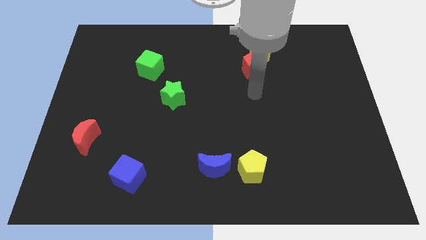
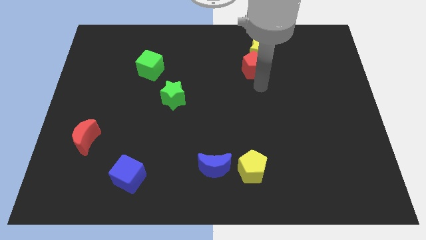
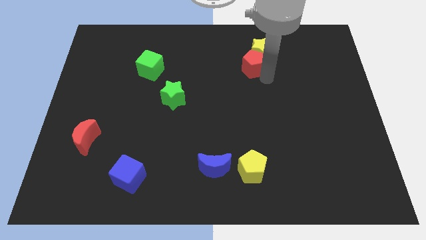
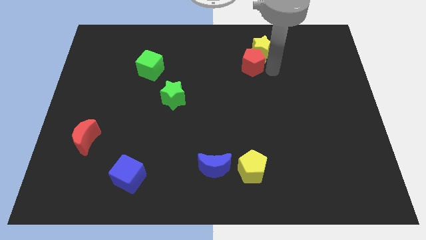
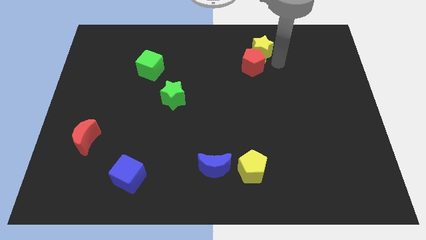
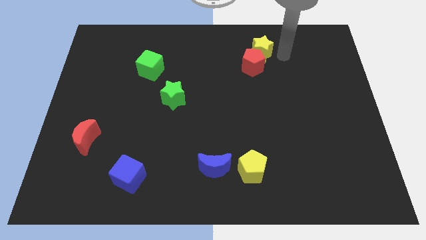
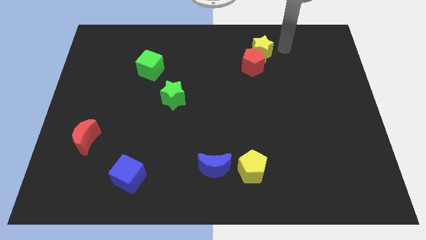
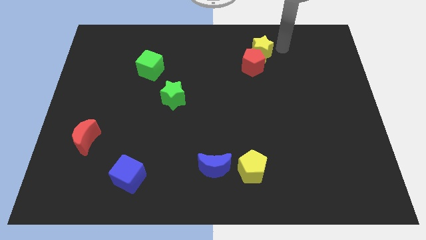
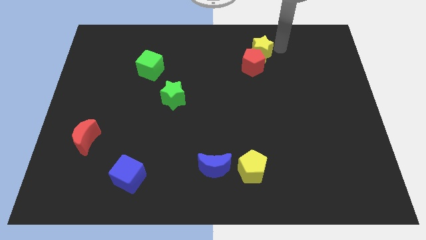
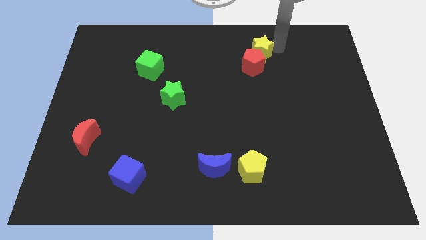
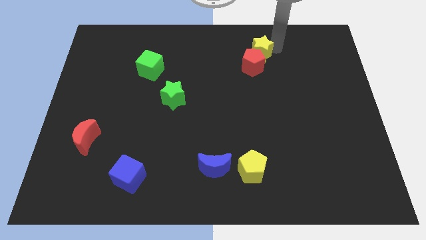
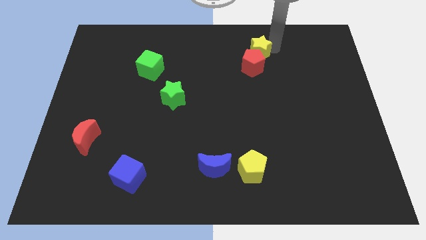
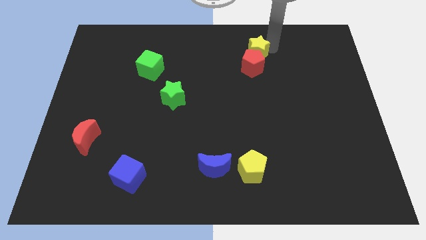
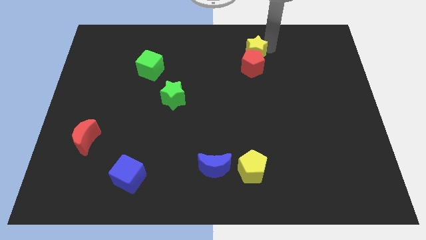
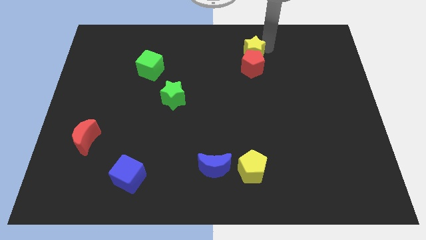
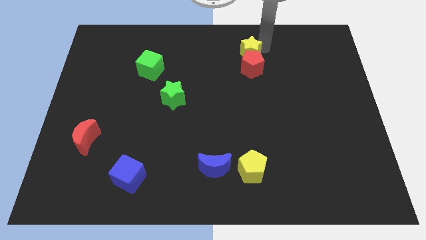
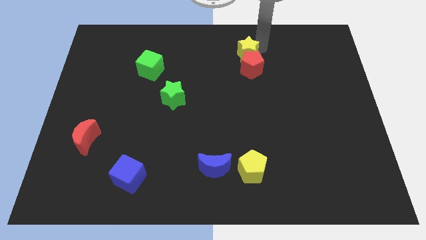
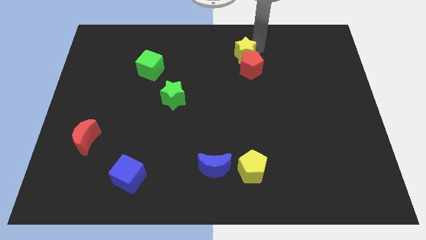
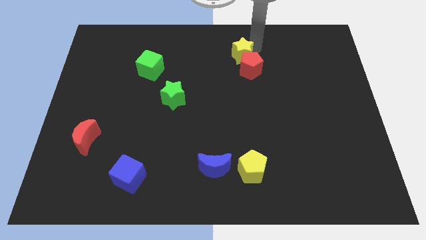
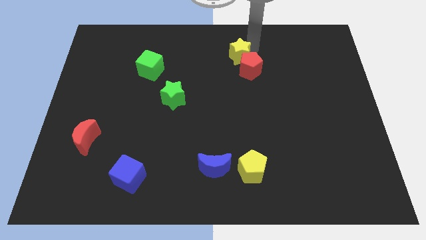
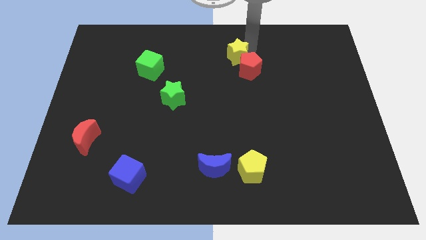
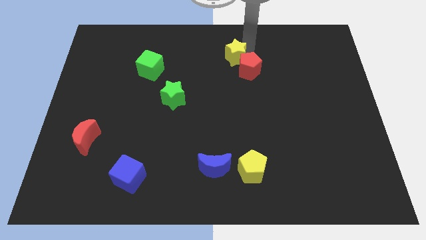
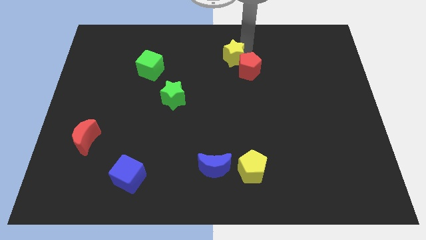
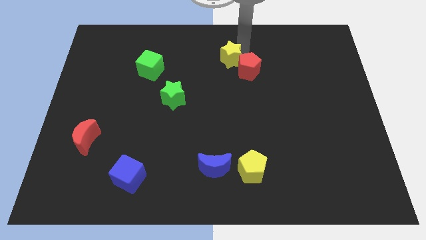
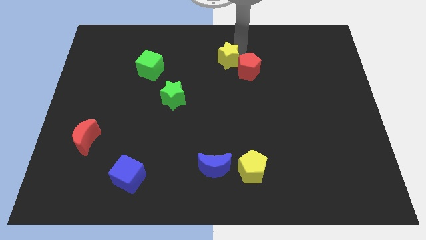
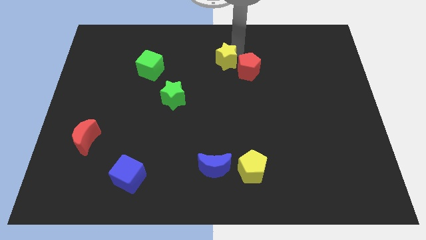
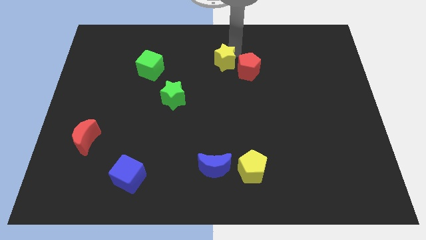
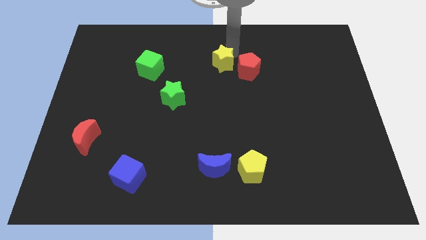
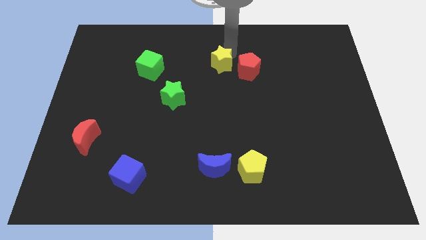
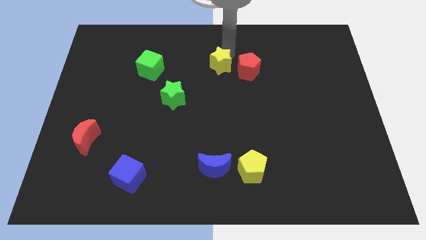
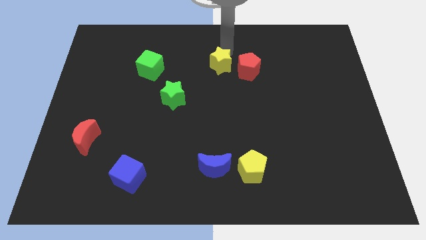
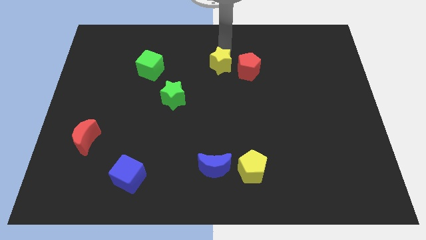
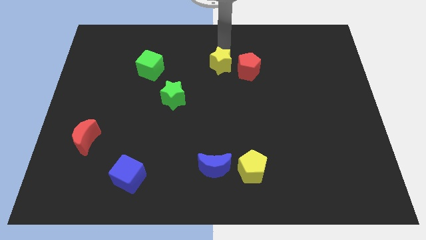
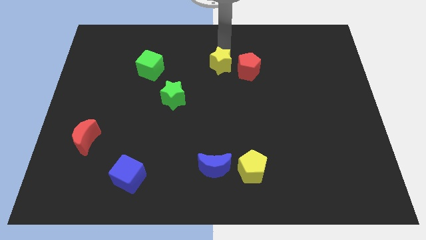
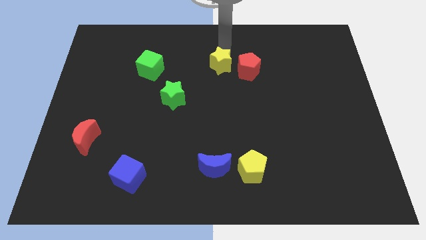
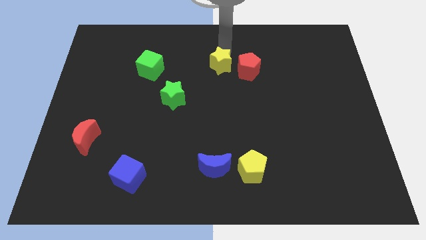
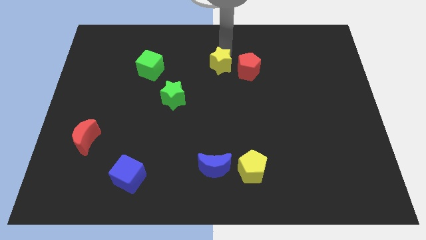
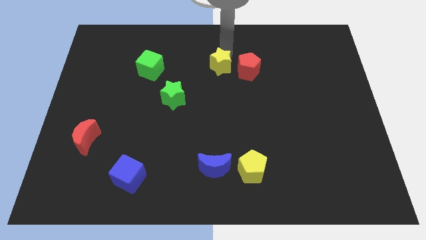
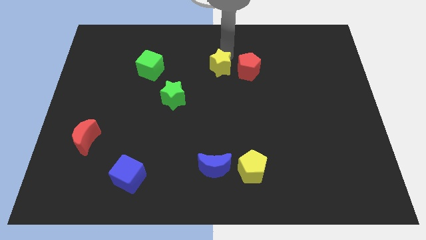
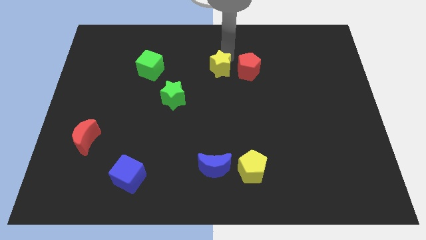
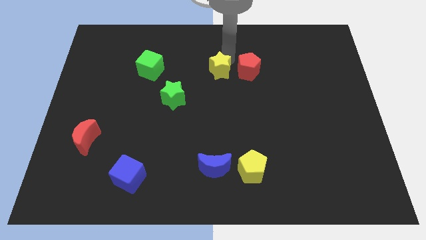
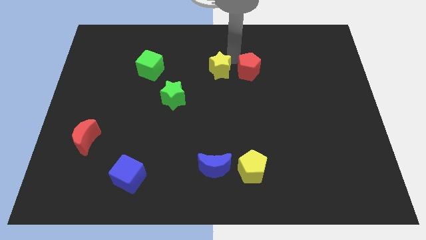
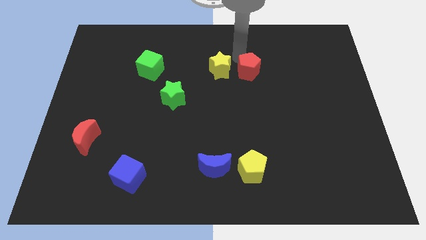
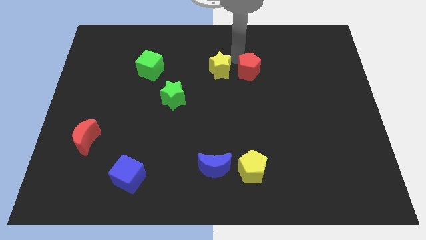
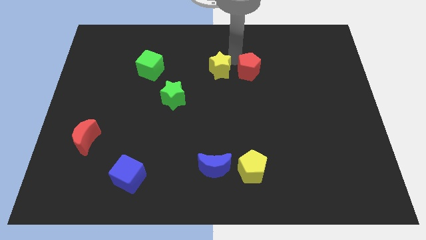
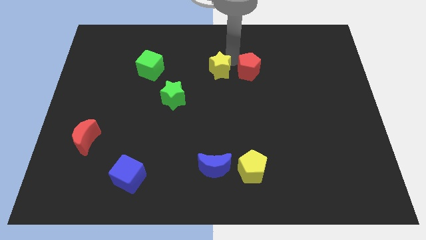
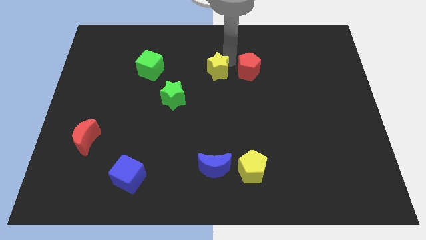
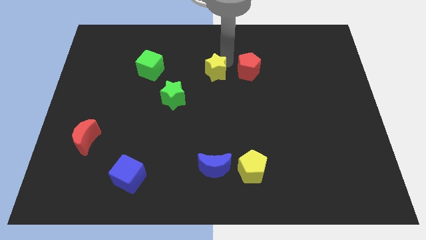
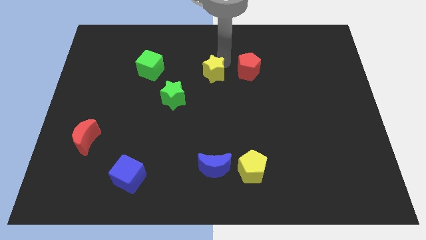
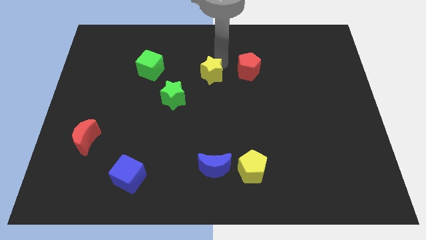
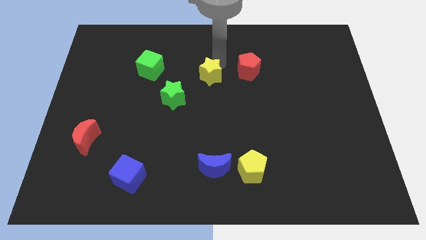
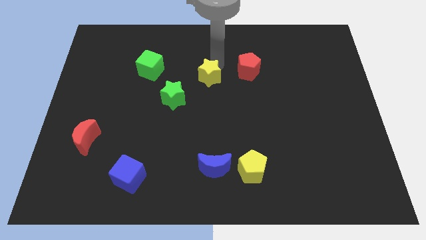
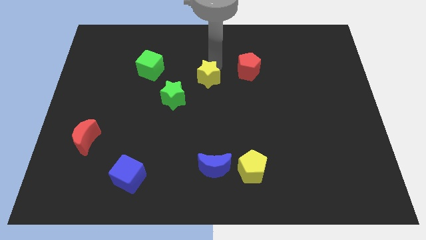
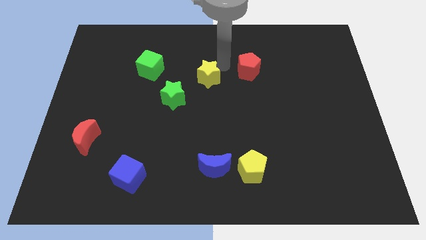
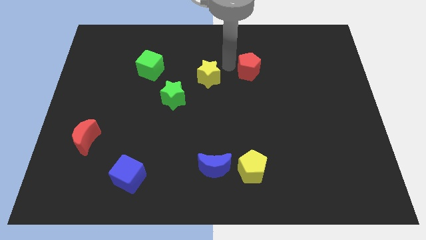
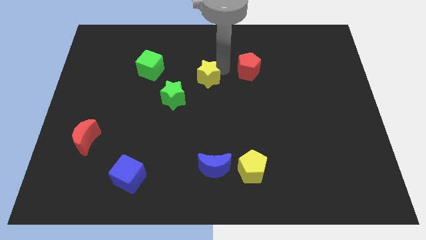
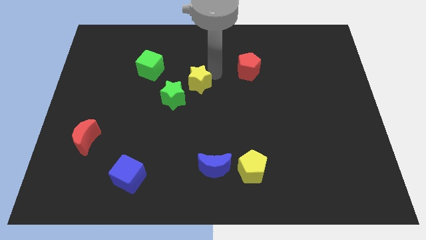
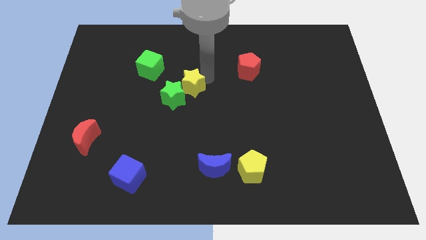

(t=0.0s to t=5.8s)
move the yellow star close to the green star

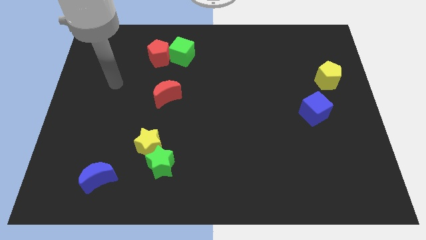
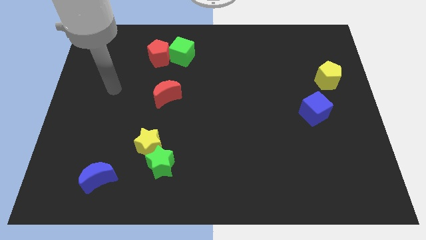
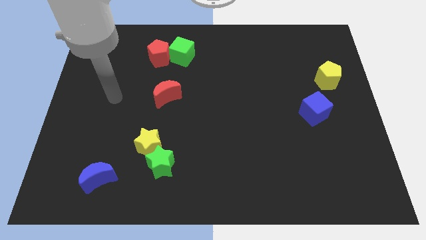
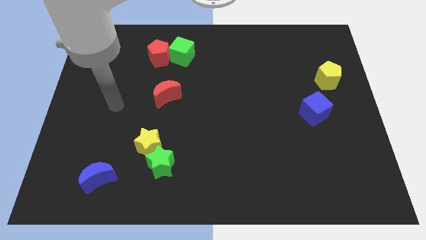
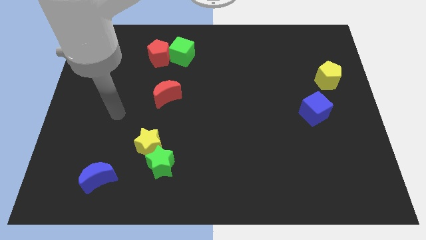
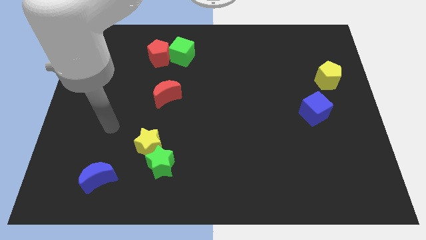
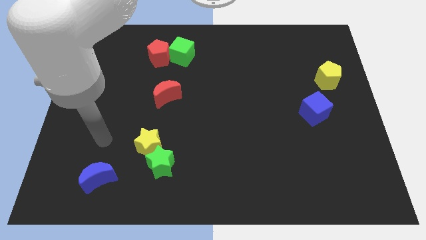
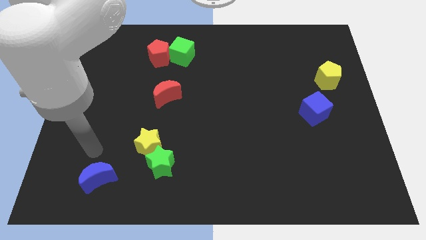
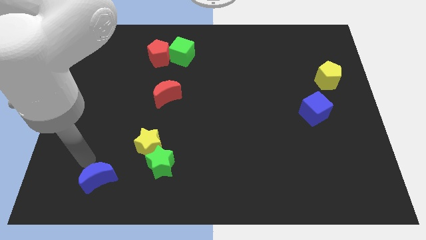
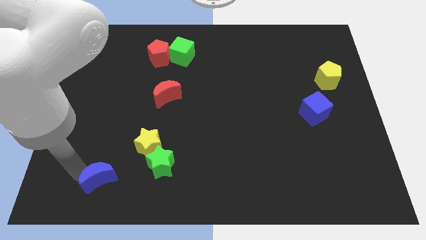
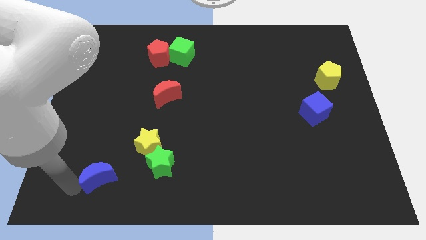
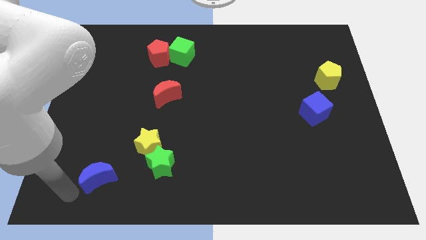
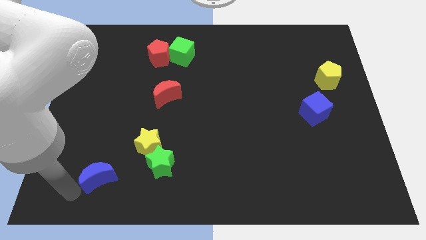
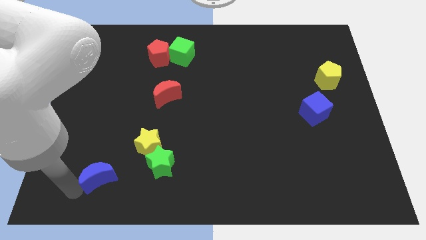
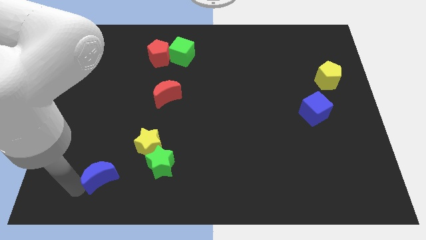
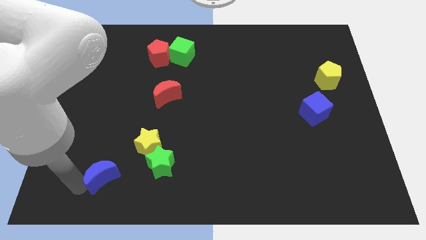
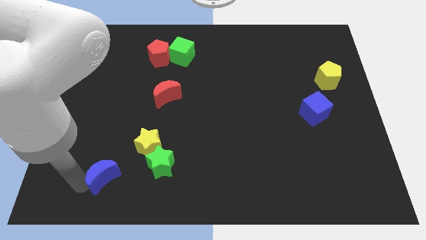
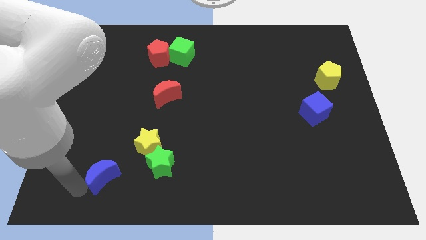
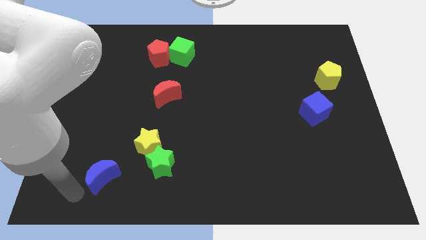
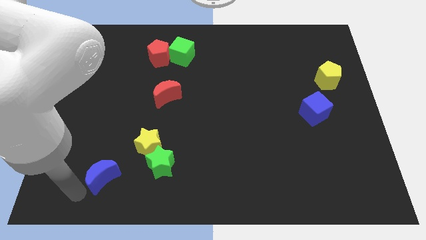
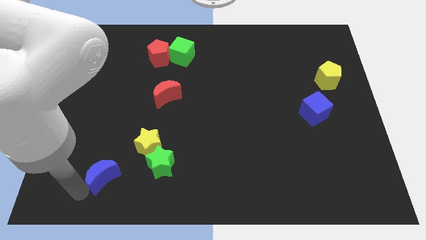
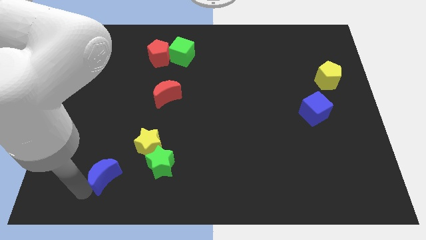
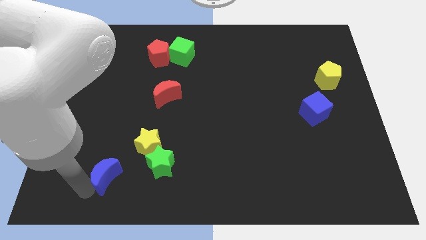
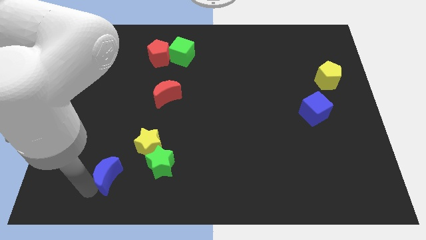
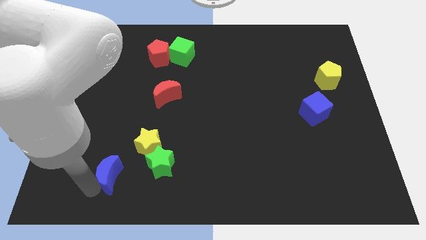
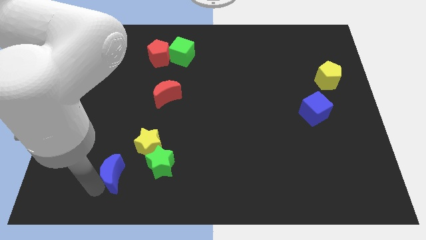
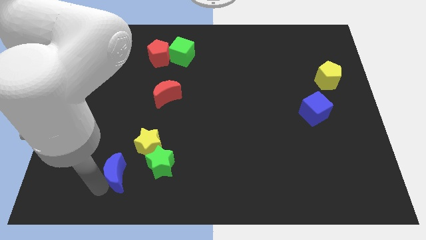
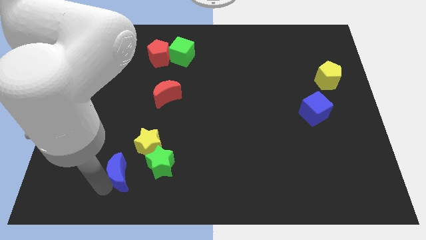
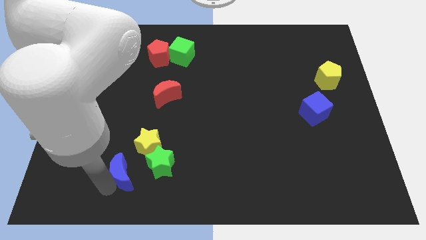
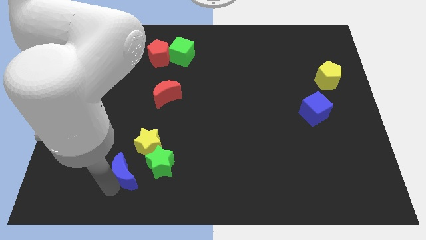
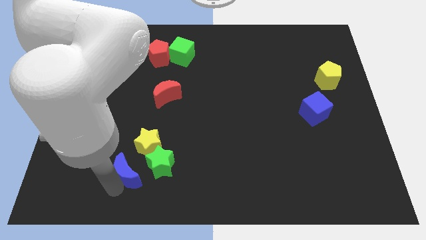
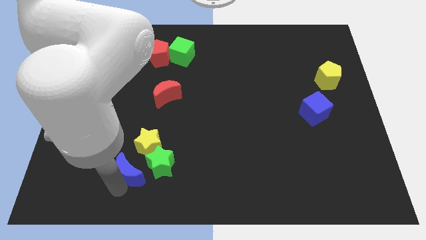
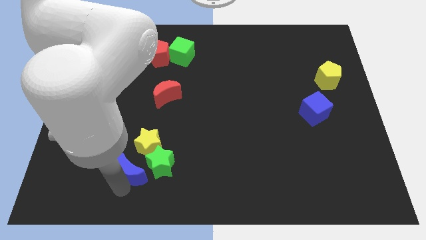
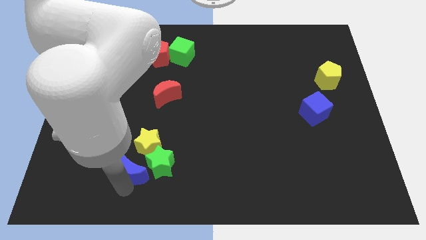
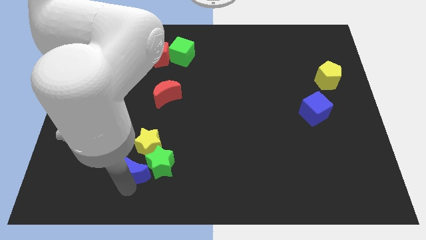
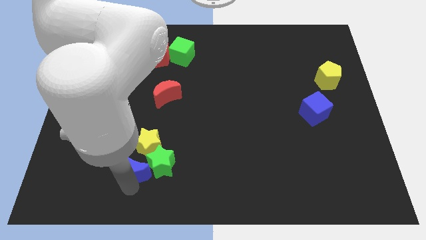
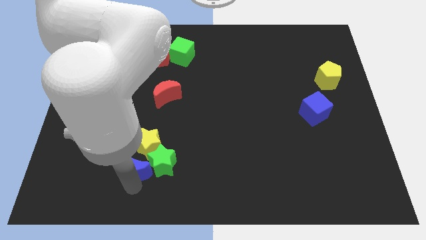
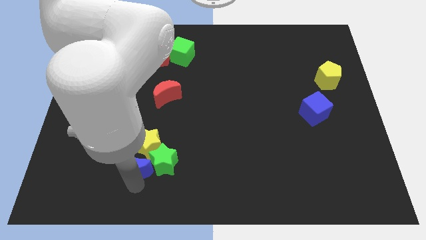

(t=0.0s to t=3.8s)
move the blue moon close to the yellow star
